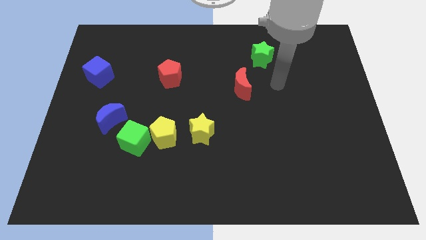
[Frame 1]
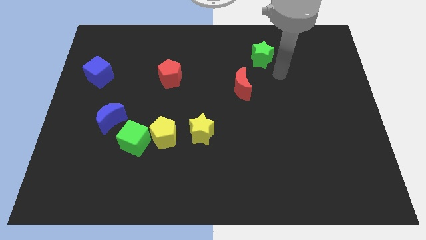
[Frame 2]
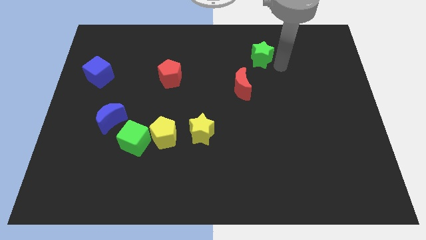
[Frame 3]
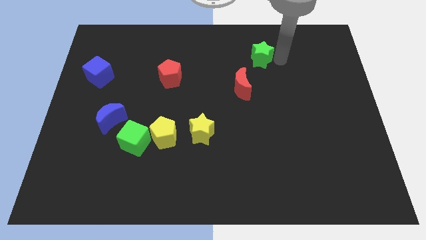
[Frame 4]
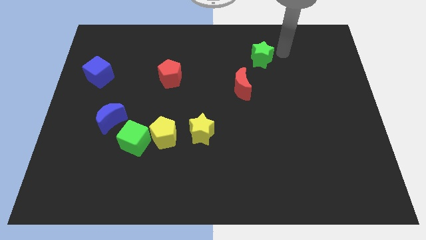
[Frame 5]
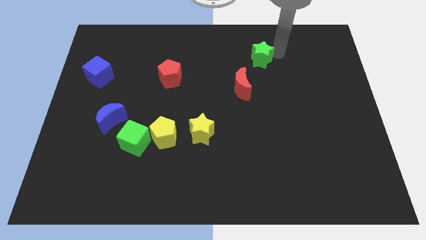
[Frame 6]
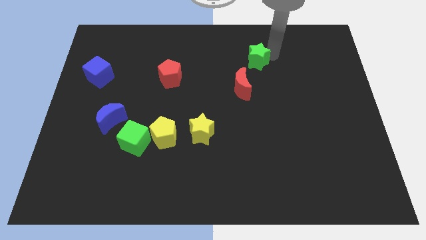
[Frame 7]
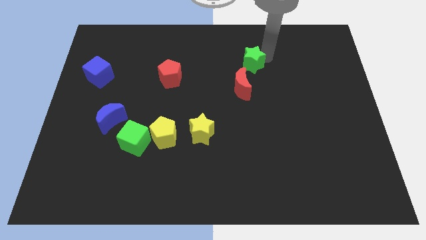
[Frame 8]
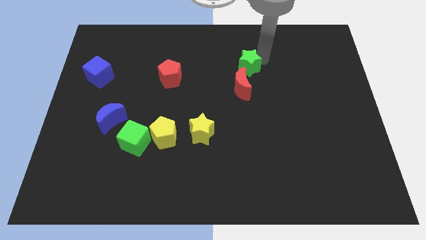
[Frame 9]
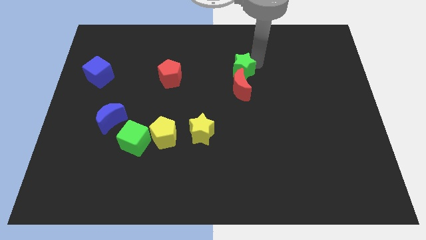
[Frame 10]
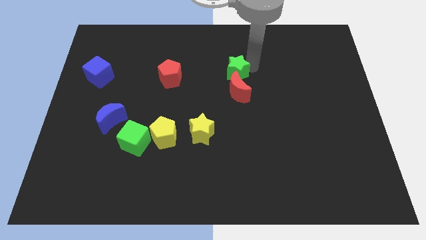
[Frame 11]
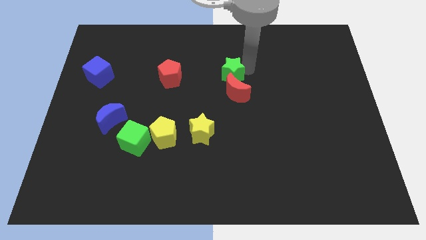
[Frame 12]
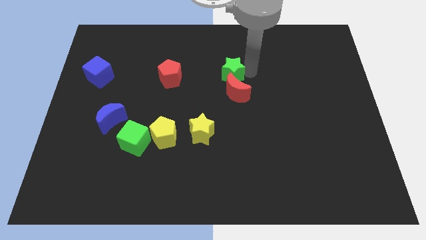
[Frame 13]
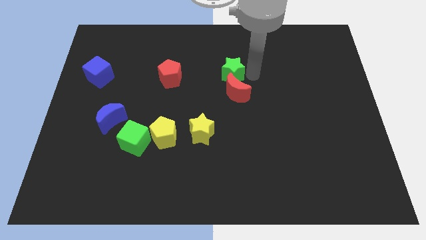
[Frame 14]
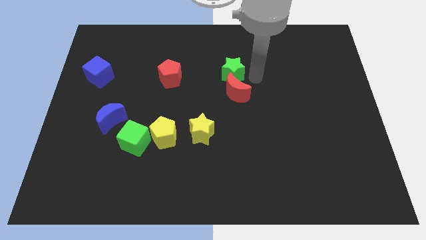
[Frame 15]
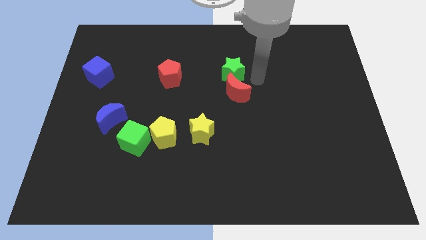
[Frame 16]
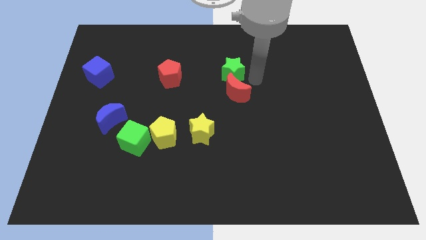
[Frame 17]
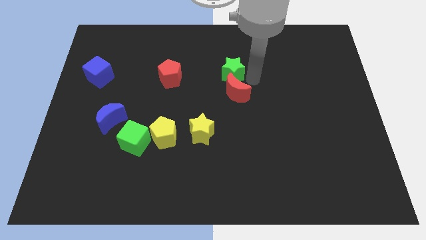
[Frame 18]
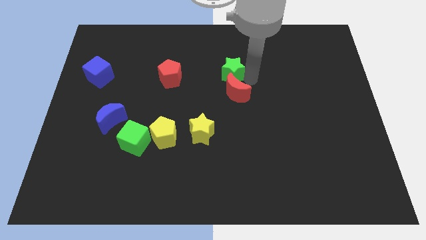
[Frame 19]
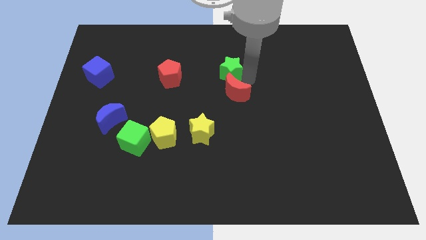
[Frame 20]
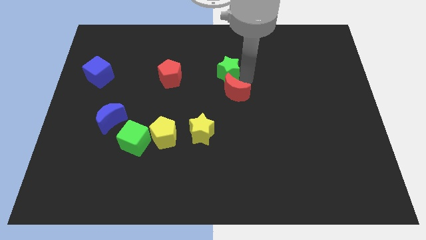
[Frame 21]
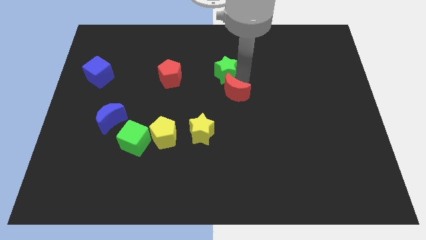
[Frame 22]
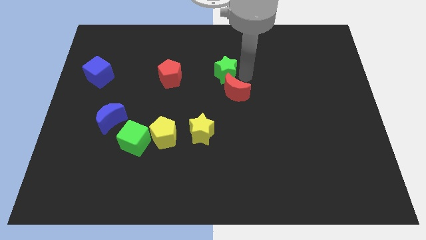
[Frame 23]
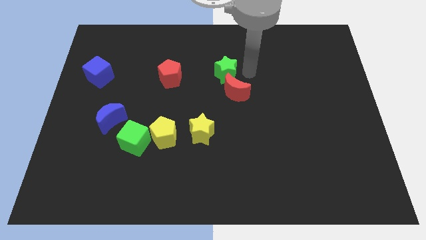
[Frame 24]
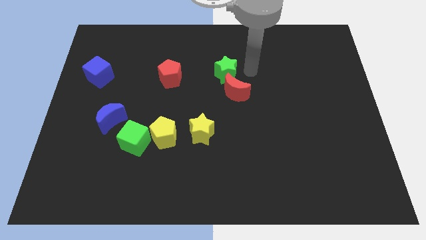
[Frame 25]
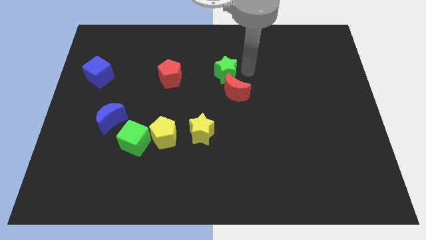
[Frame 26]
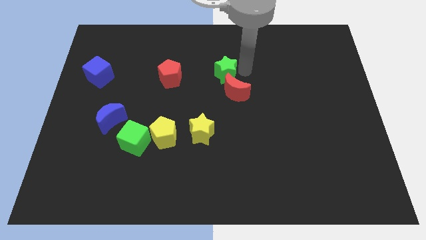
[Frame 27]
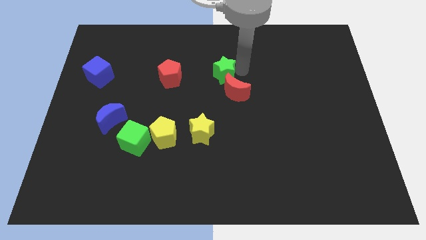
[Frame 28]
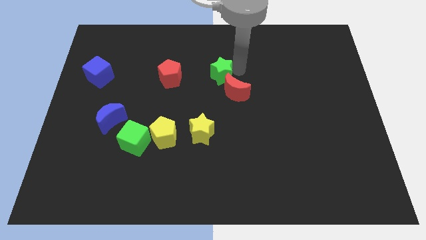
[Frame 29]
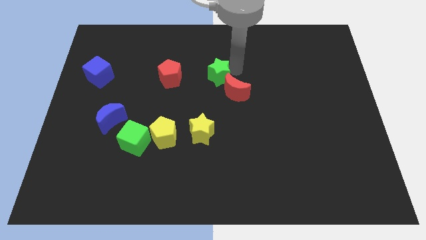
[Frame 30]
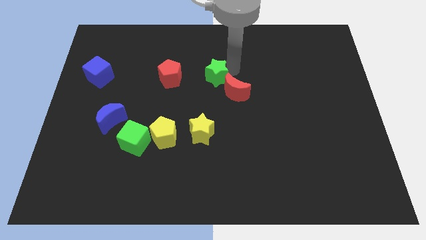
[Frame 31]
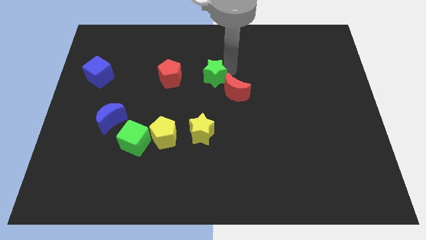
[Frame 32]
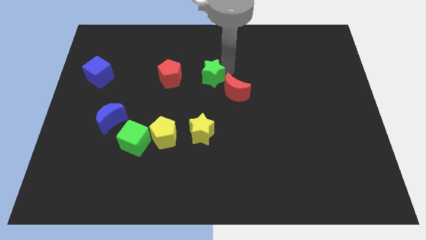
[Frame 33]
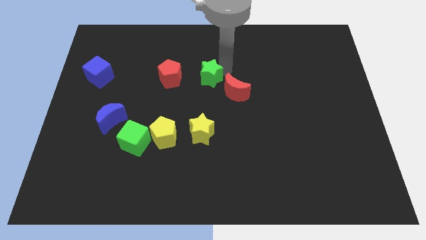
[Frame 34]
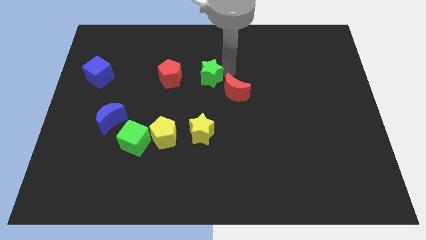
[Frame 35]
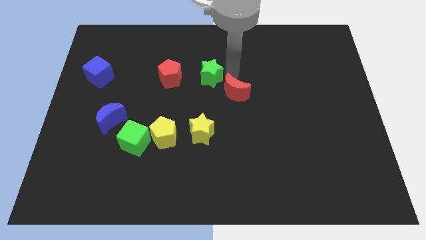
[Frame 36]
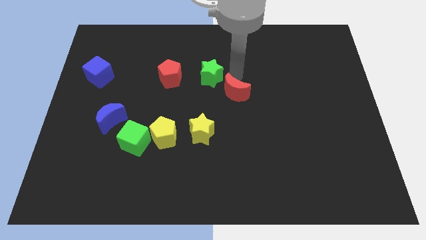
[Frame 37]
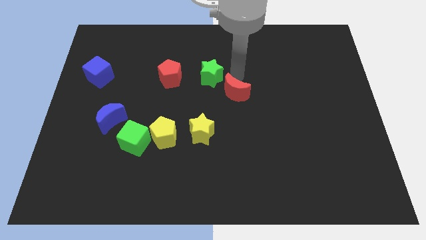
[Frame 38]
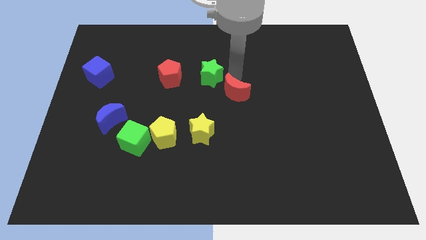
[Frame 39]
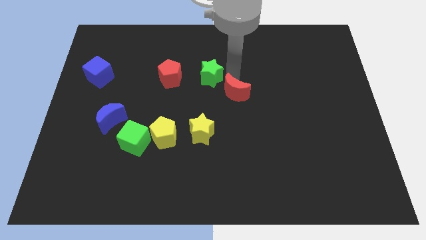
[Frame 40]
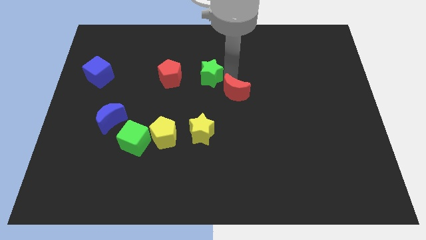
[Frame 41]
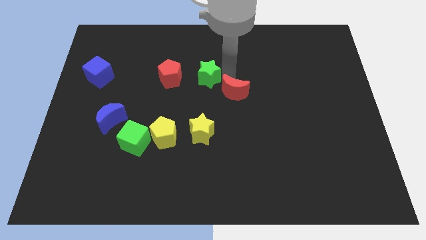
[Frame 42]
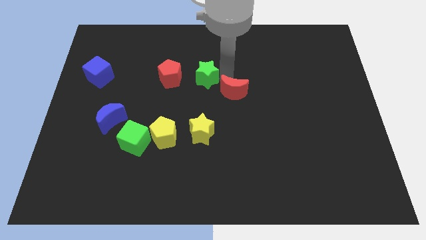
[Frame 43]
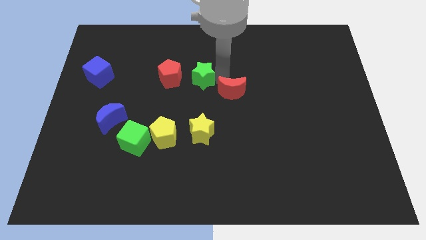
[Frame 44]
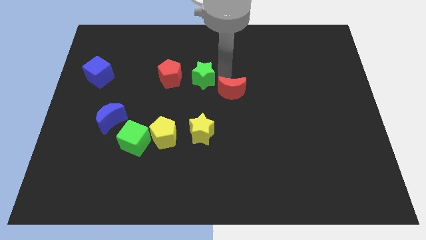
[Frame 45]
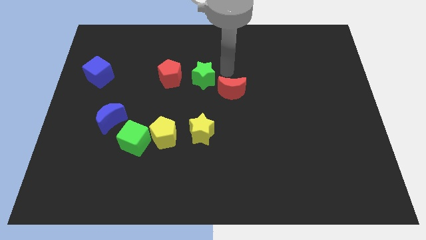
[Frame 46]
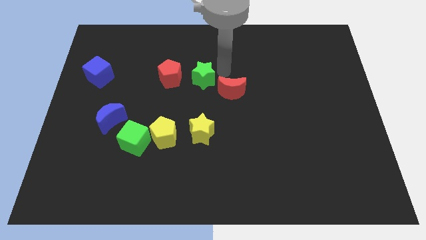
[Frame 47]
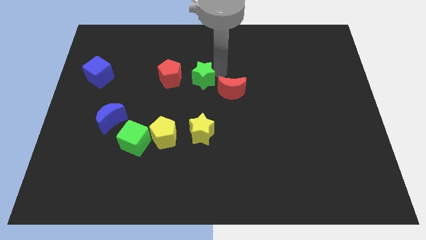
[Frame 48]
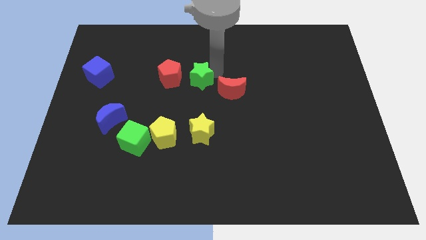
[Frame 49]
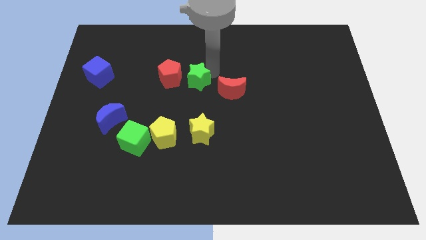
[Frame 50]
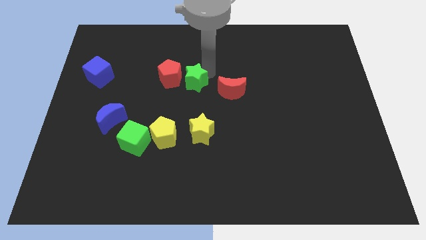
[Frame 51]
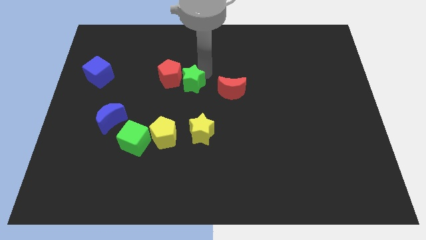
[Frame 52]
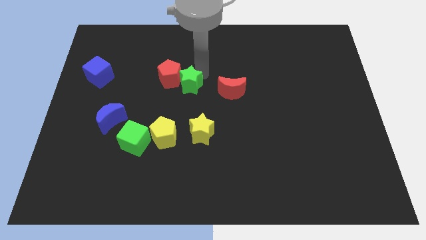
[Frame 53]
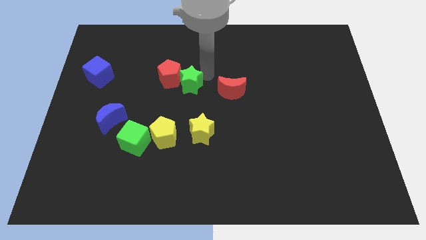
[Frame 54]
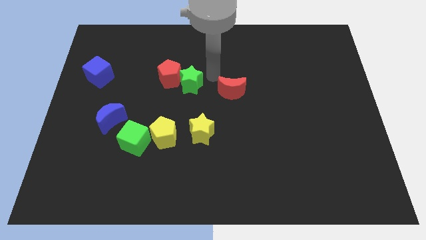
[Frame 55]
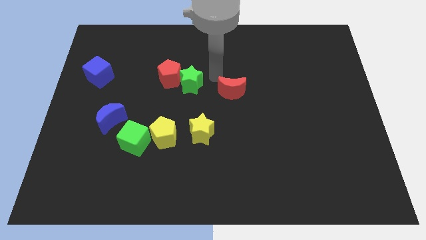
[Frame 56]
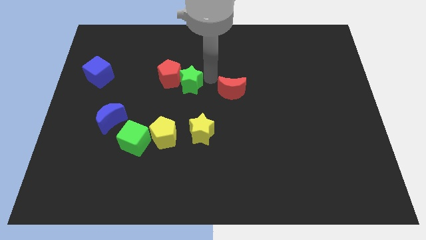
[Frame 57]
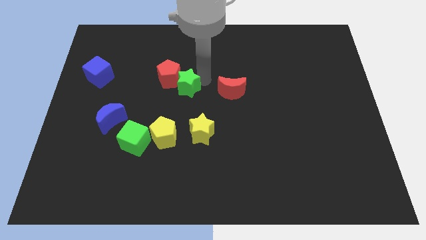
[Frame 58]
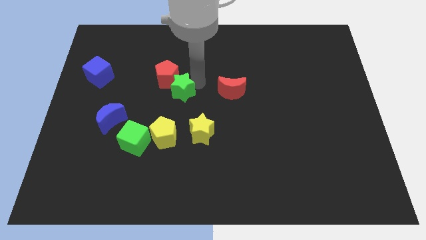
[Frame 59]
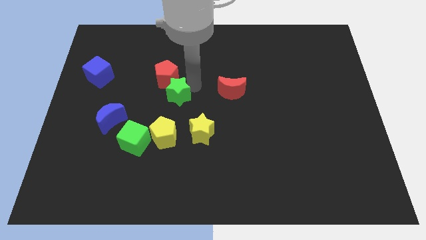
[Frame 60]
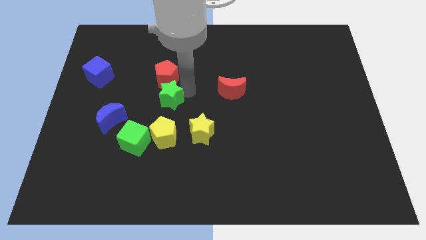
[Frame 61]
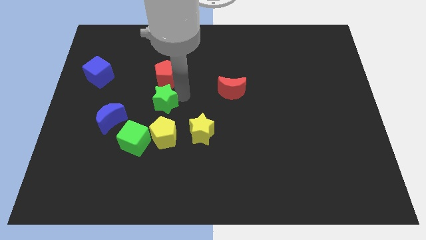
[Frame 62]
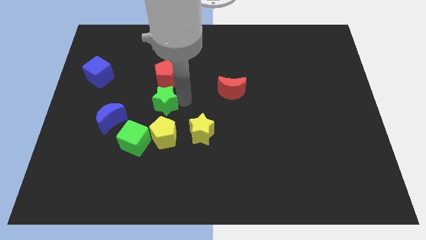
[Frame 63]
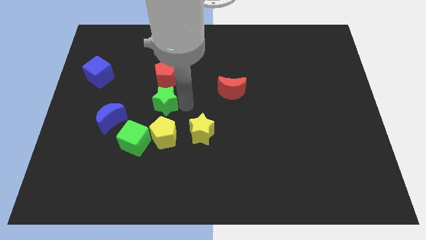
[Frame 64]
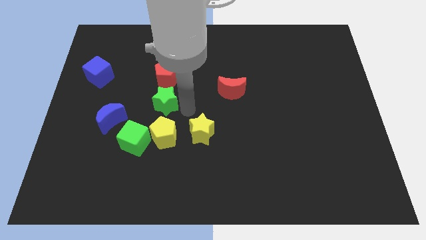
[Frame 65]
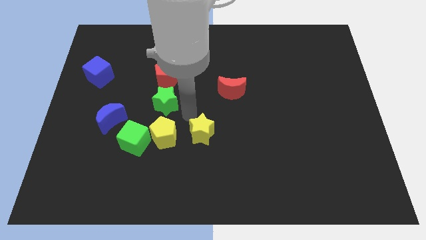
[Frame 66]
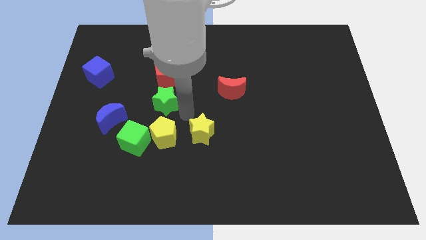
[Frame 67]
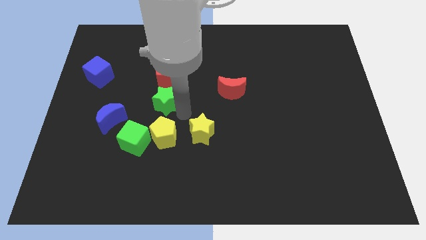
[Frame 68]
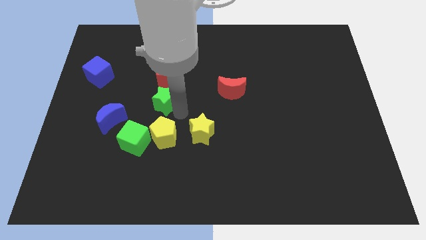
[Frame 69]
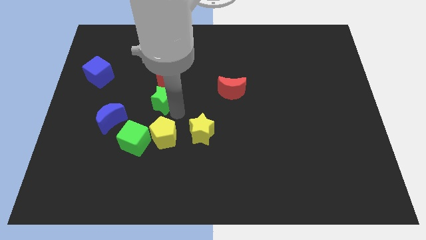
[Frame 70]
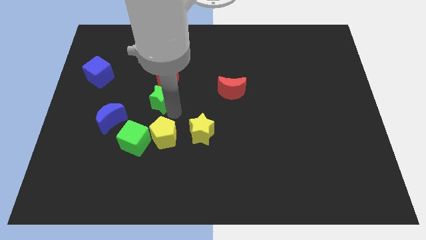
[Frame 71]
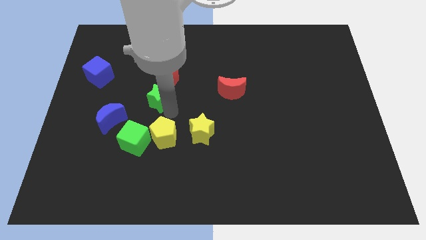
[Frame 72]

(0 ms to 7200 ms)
slide the green star to the bottom left side of the red pentagon

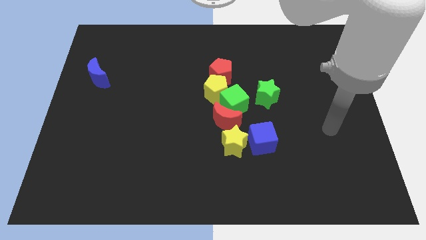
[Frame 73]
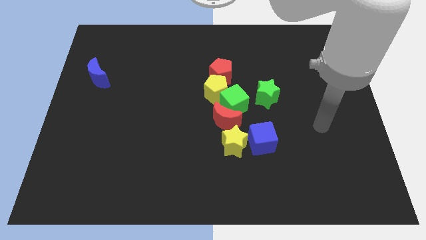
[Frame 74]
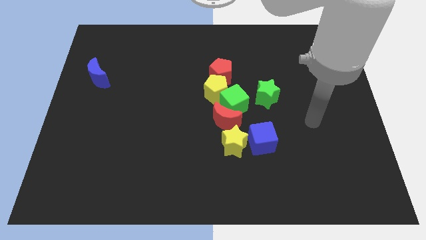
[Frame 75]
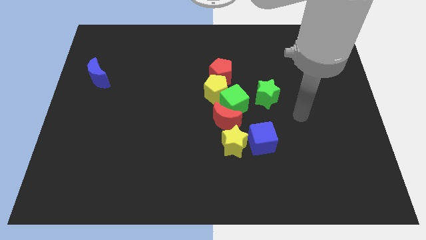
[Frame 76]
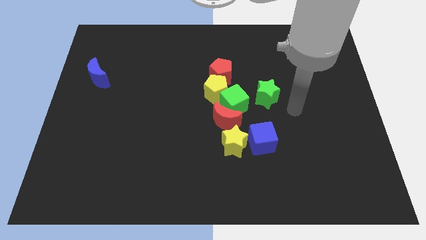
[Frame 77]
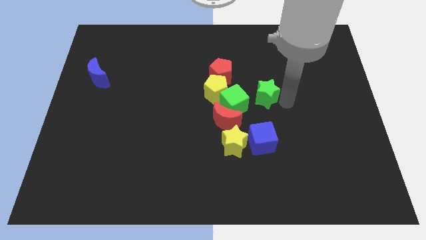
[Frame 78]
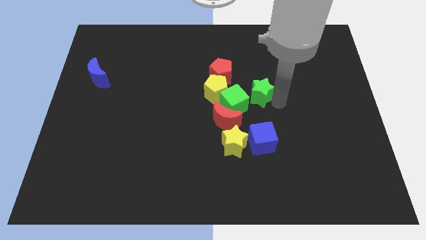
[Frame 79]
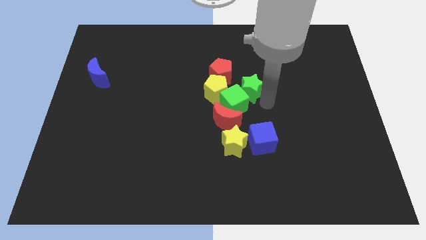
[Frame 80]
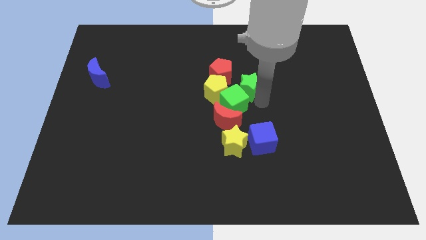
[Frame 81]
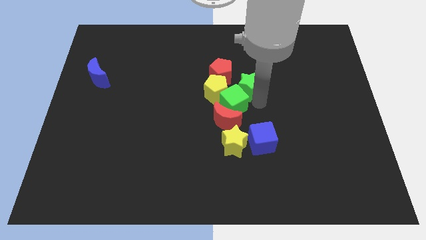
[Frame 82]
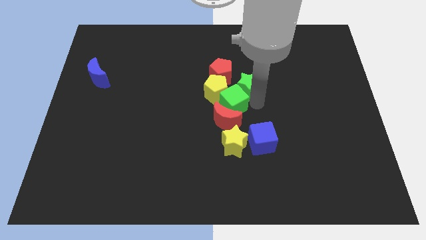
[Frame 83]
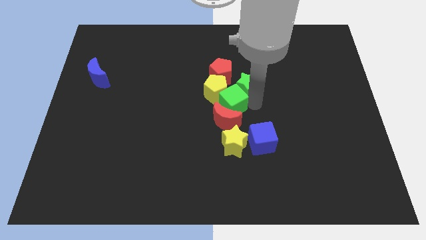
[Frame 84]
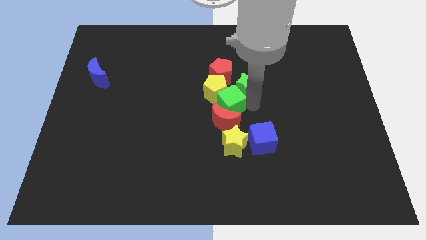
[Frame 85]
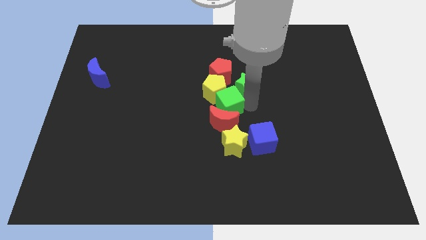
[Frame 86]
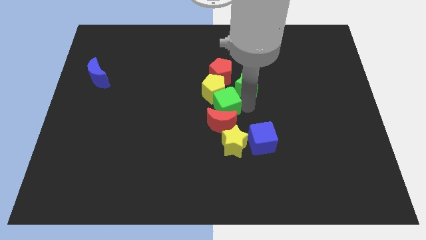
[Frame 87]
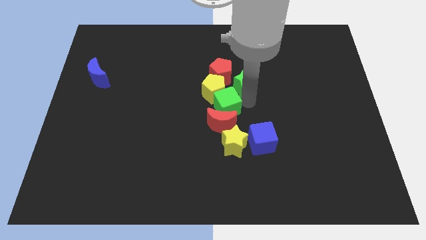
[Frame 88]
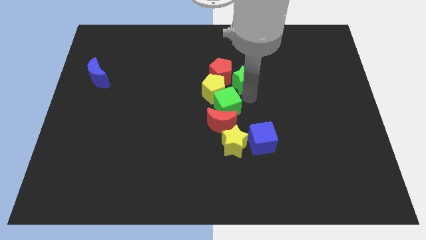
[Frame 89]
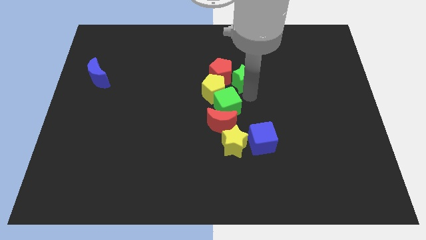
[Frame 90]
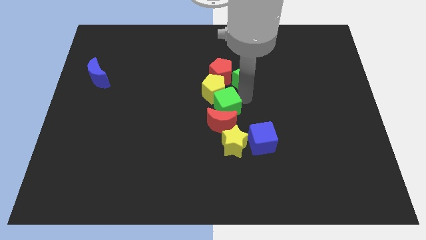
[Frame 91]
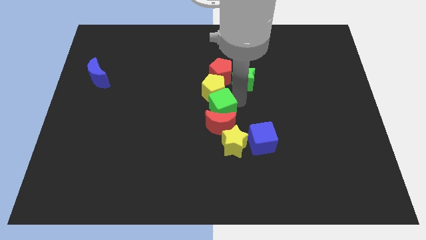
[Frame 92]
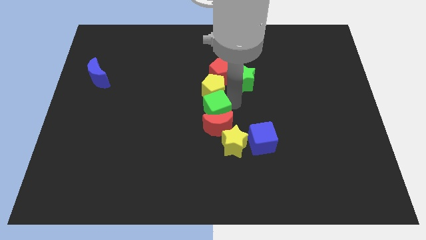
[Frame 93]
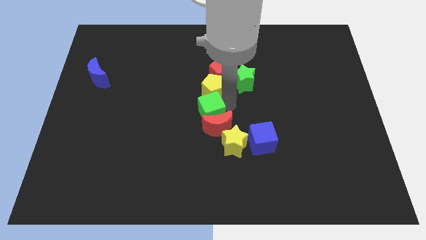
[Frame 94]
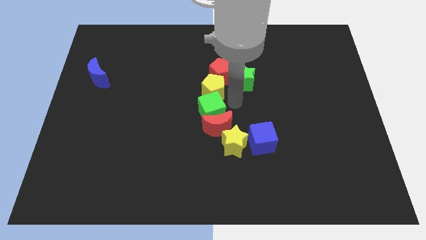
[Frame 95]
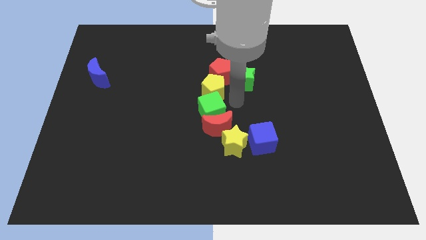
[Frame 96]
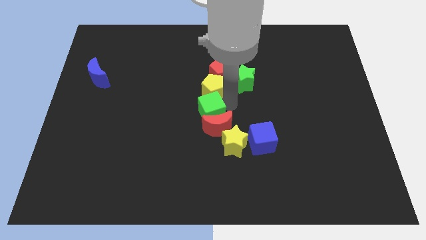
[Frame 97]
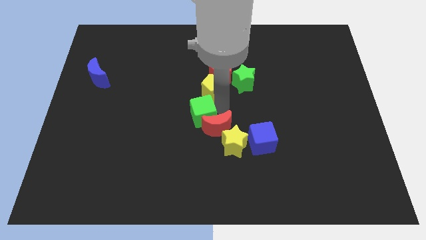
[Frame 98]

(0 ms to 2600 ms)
slide the green cube to the left side of the red moon
